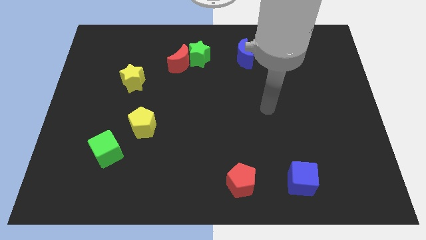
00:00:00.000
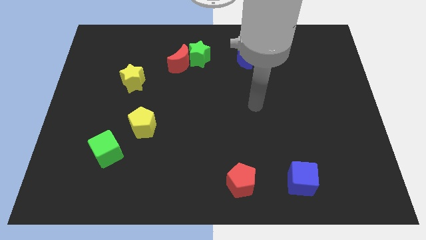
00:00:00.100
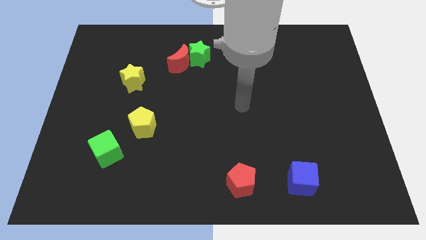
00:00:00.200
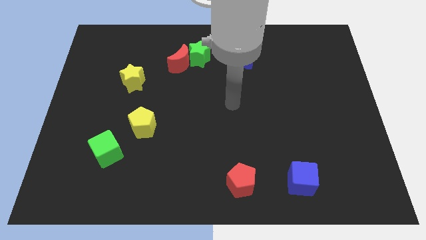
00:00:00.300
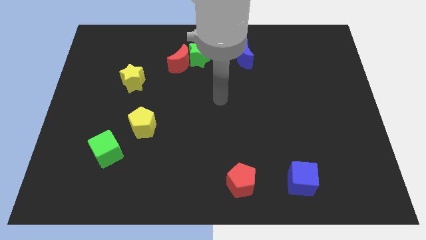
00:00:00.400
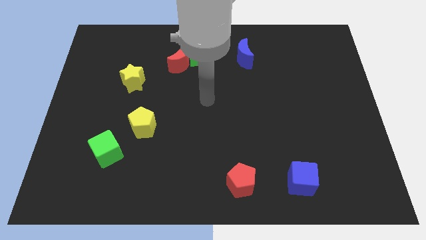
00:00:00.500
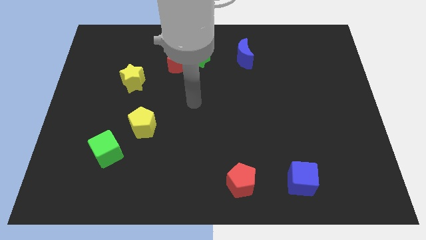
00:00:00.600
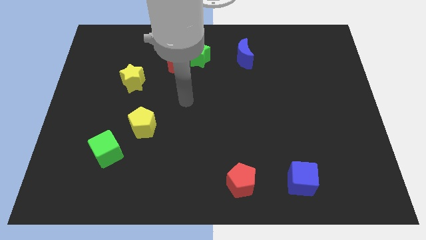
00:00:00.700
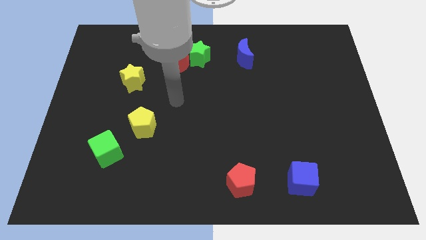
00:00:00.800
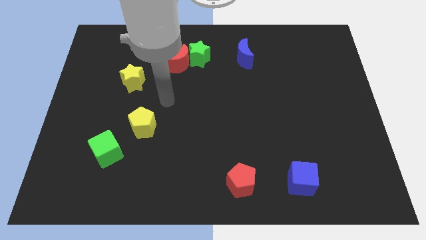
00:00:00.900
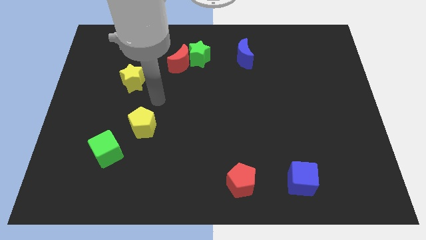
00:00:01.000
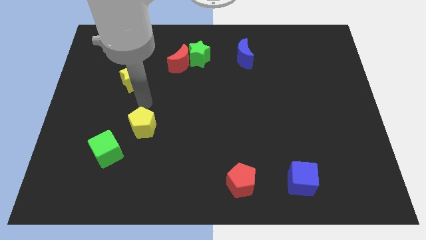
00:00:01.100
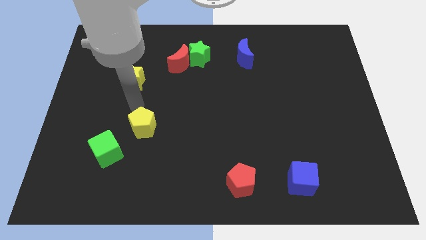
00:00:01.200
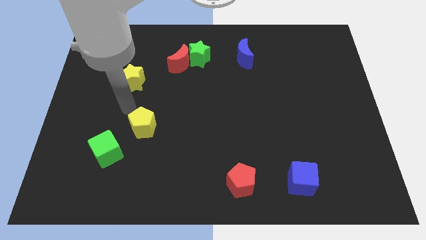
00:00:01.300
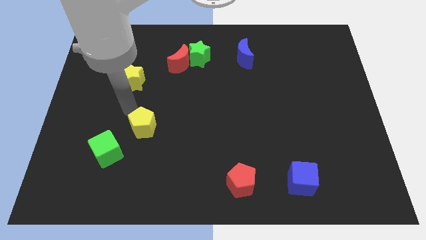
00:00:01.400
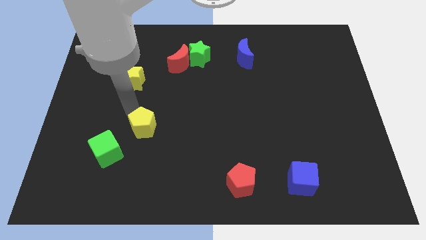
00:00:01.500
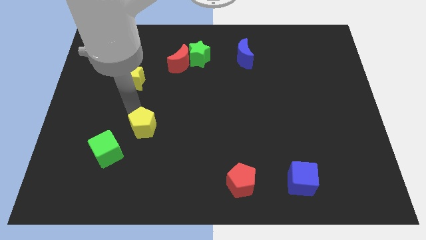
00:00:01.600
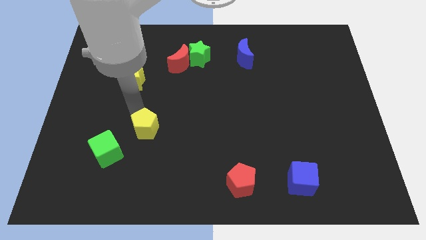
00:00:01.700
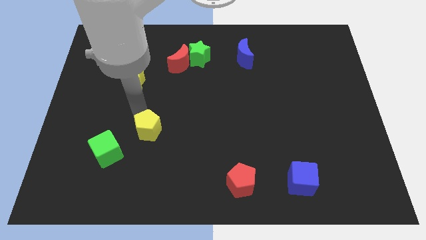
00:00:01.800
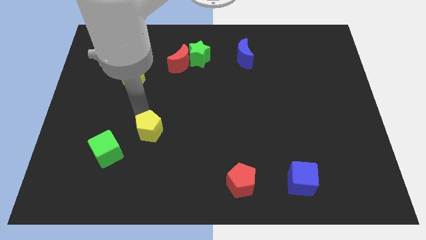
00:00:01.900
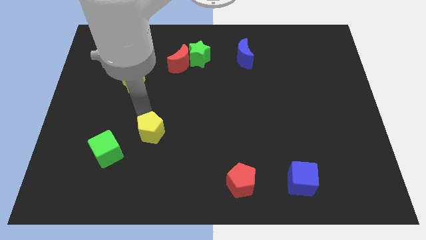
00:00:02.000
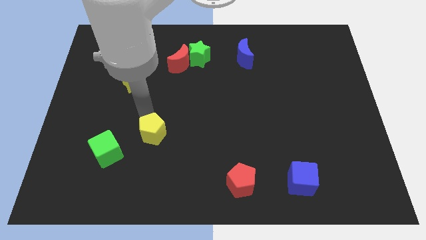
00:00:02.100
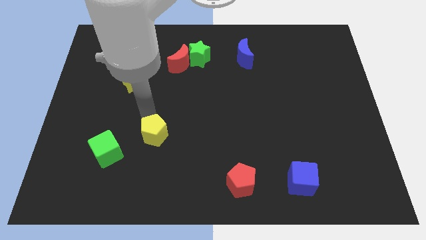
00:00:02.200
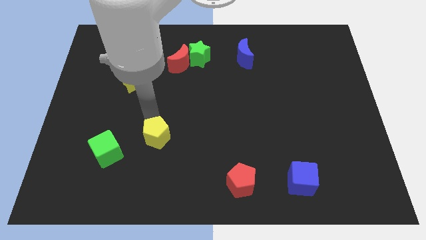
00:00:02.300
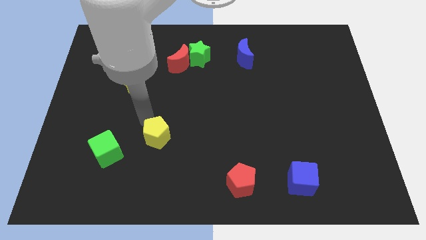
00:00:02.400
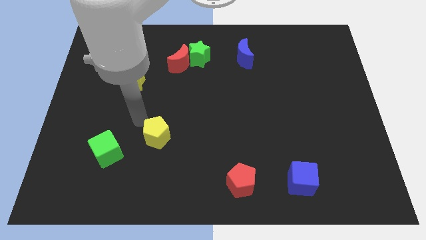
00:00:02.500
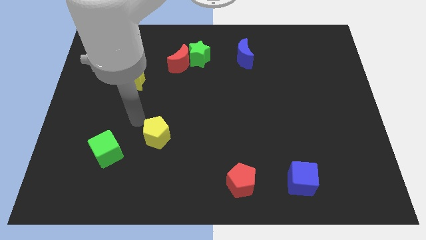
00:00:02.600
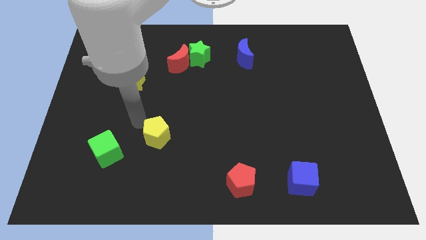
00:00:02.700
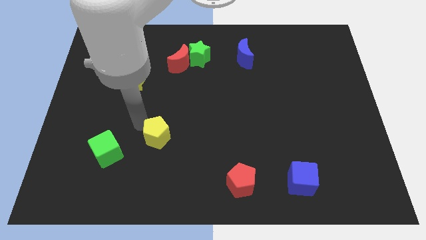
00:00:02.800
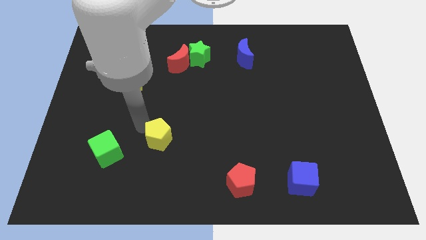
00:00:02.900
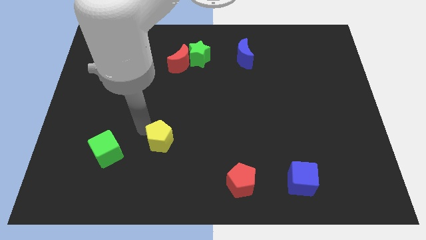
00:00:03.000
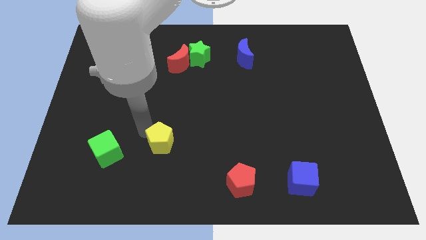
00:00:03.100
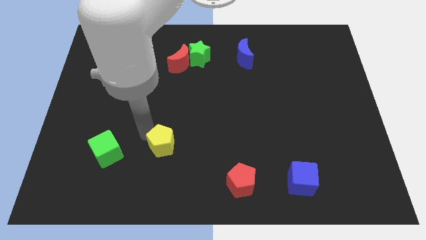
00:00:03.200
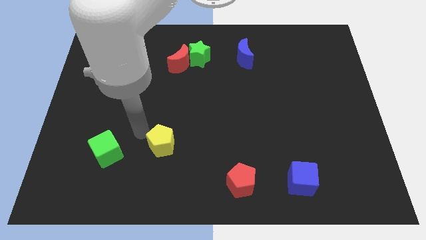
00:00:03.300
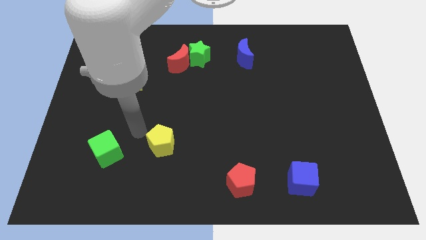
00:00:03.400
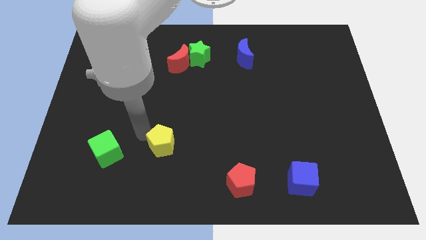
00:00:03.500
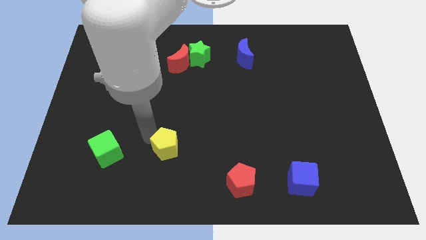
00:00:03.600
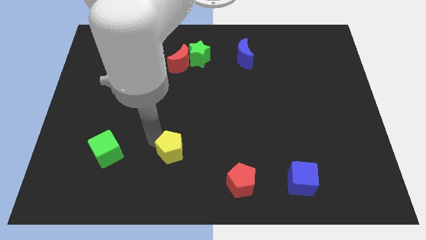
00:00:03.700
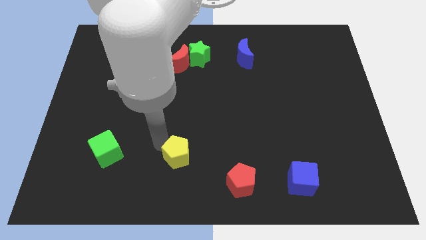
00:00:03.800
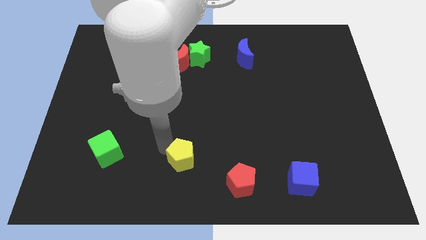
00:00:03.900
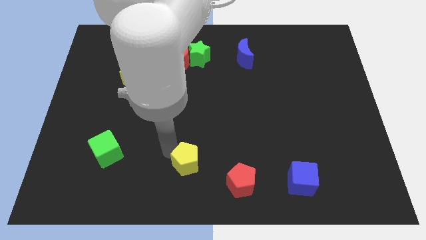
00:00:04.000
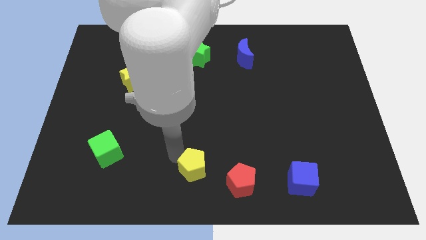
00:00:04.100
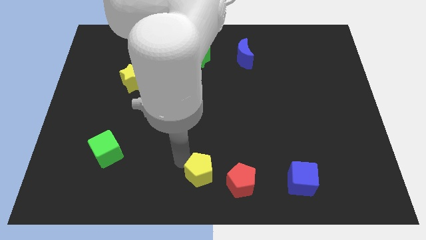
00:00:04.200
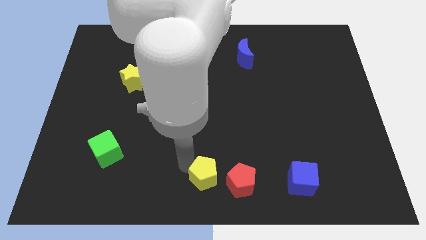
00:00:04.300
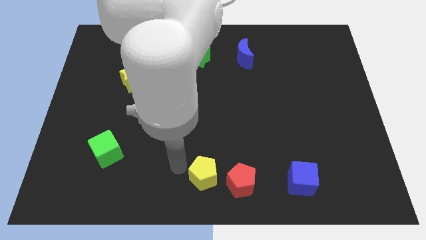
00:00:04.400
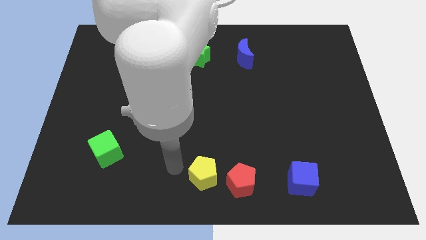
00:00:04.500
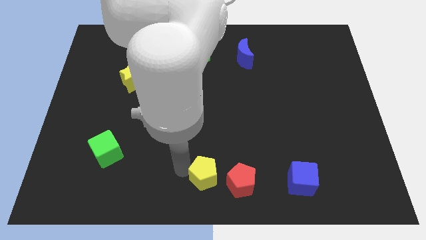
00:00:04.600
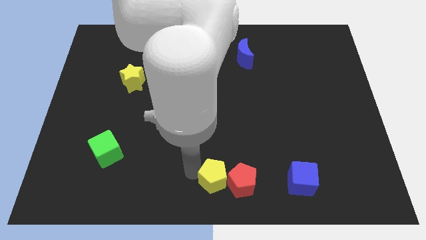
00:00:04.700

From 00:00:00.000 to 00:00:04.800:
slide the yellow pentagon next to the red pentagon

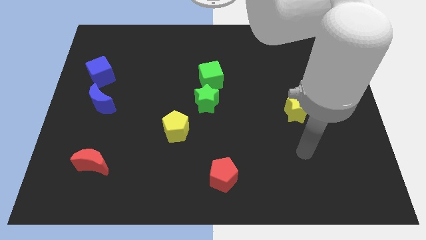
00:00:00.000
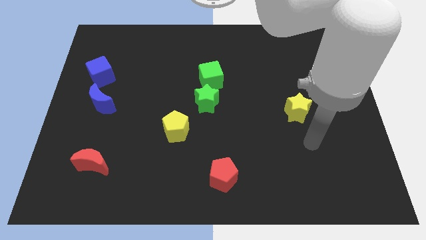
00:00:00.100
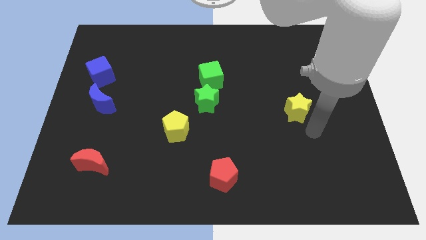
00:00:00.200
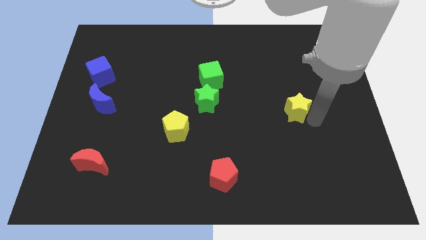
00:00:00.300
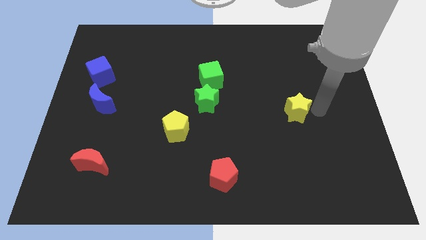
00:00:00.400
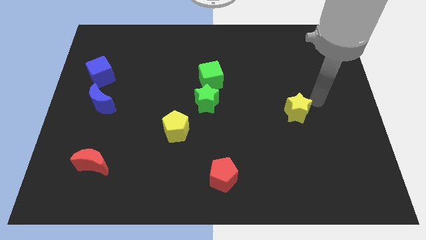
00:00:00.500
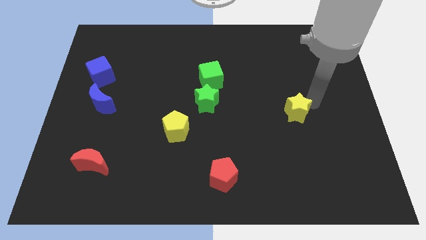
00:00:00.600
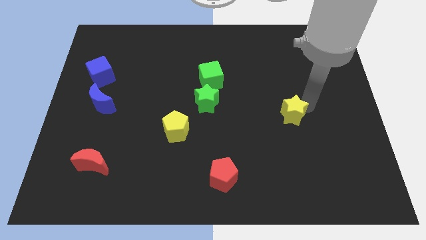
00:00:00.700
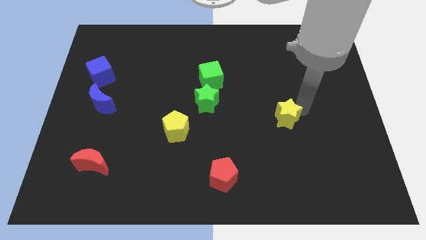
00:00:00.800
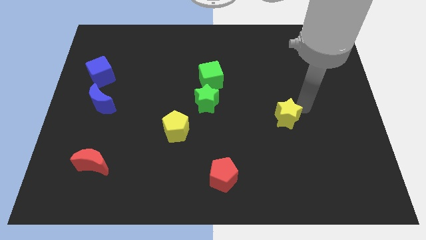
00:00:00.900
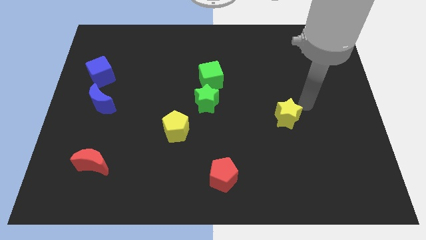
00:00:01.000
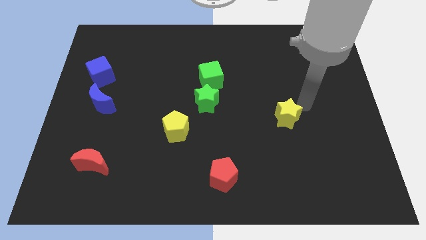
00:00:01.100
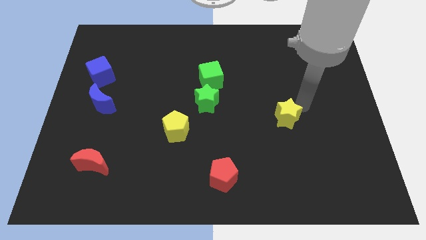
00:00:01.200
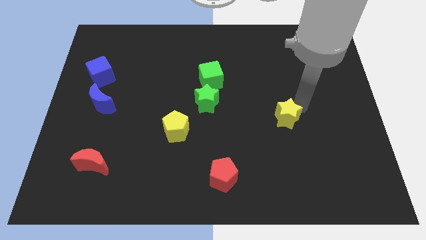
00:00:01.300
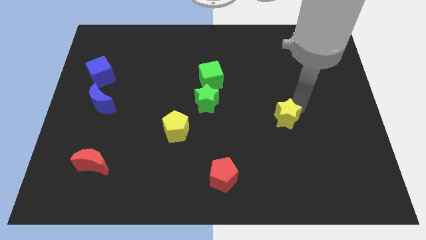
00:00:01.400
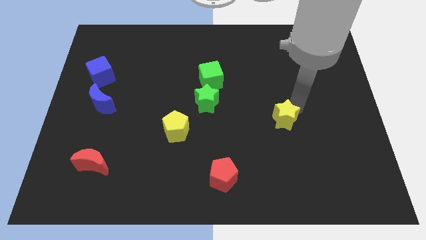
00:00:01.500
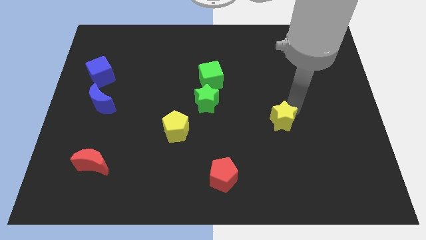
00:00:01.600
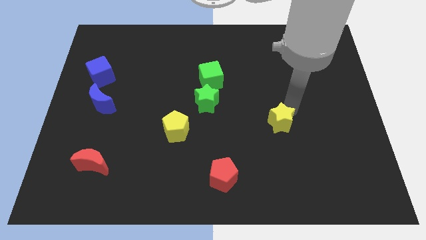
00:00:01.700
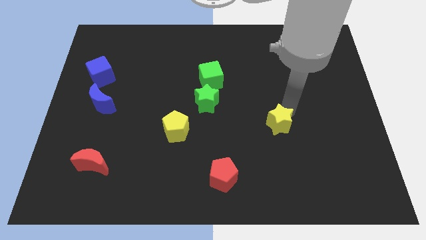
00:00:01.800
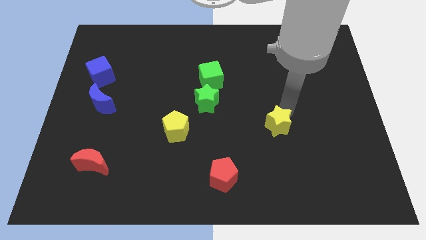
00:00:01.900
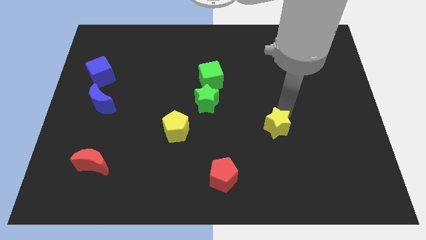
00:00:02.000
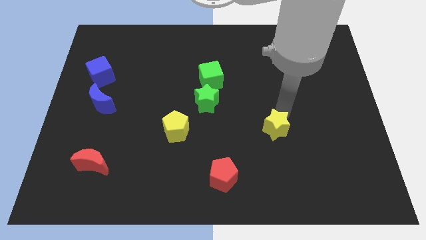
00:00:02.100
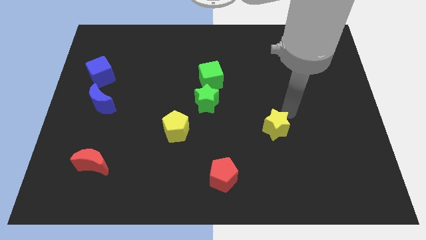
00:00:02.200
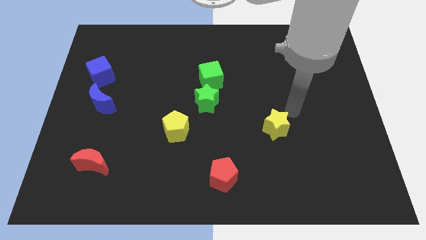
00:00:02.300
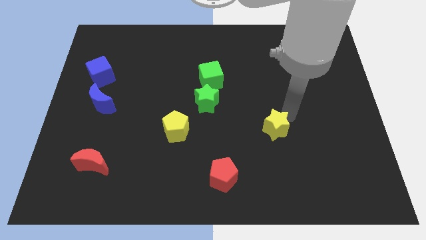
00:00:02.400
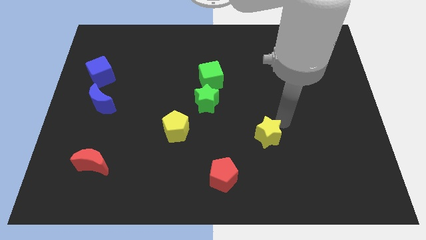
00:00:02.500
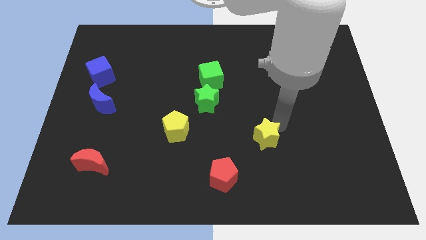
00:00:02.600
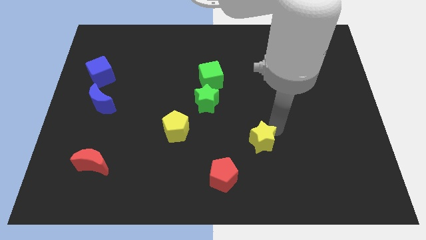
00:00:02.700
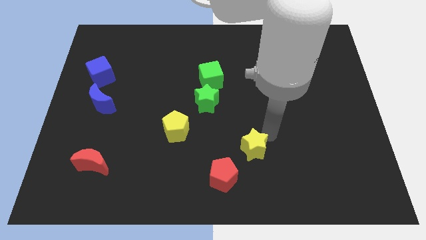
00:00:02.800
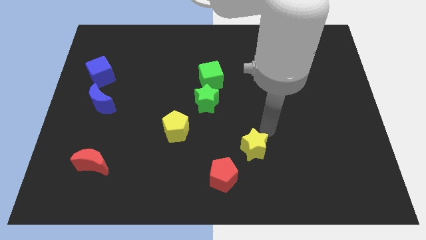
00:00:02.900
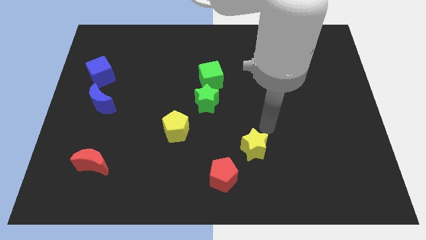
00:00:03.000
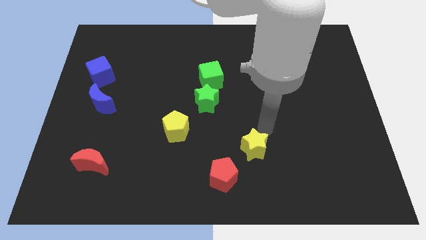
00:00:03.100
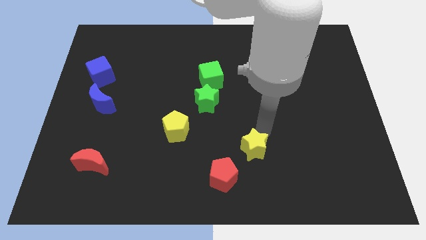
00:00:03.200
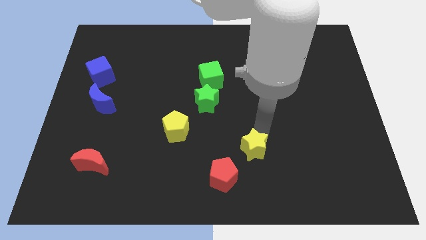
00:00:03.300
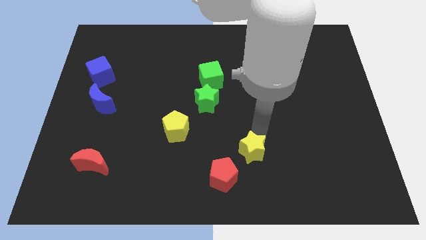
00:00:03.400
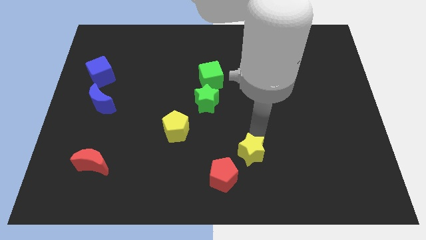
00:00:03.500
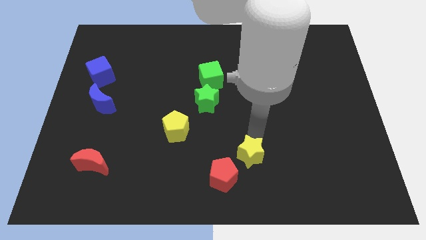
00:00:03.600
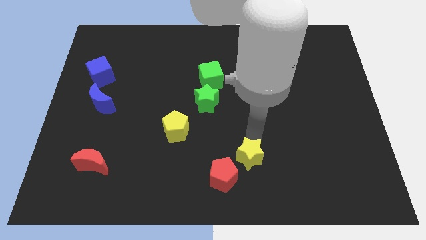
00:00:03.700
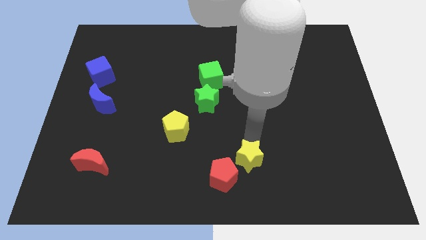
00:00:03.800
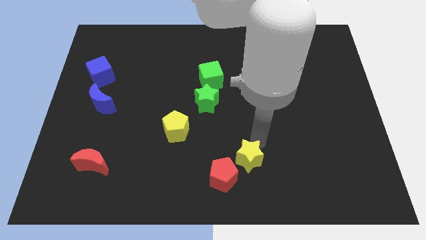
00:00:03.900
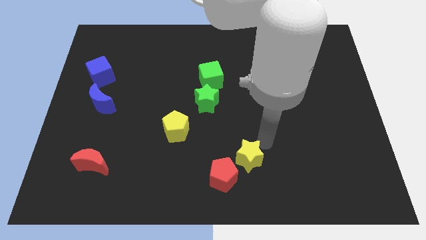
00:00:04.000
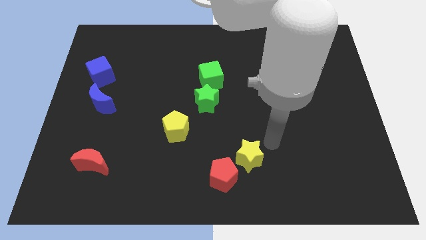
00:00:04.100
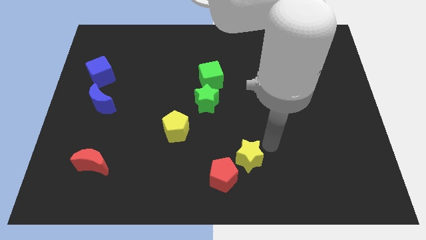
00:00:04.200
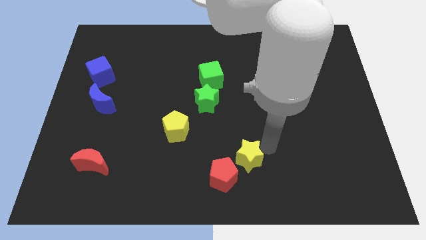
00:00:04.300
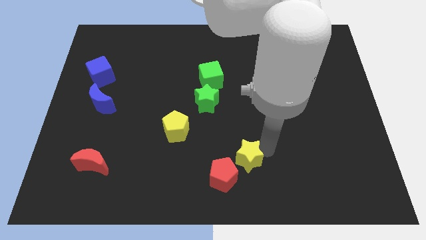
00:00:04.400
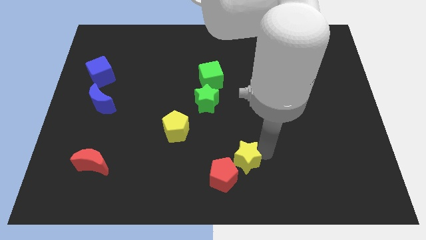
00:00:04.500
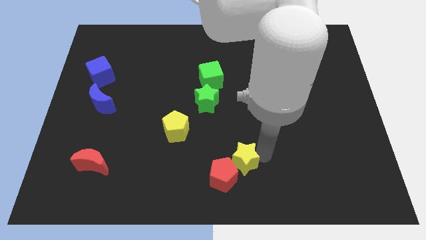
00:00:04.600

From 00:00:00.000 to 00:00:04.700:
put the yellow star to the red pentagon
